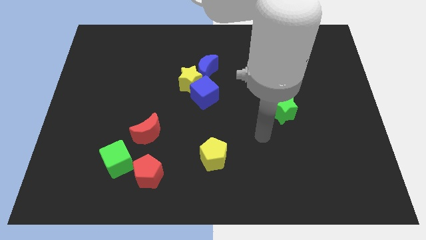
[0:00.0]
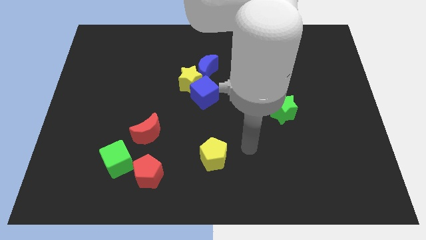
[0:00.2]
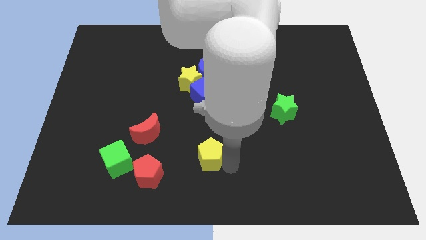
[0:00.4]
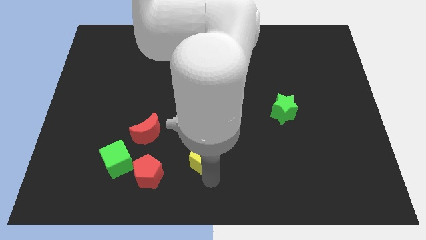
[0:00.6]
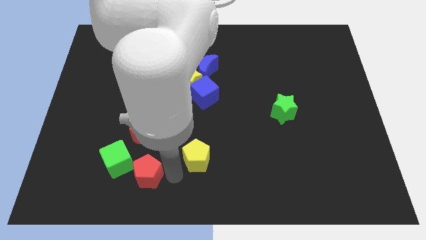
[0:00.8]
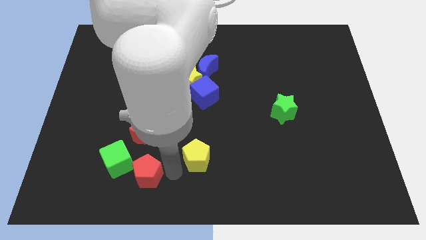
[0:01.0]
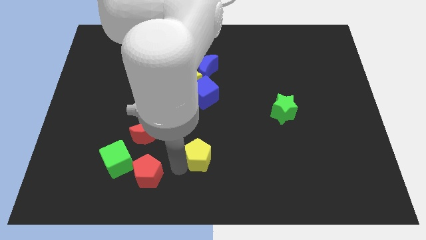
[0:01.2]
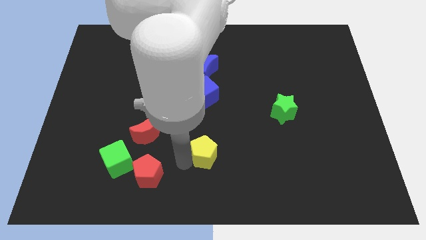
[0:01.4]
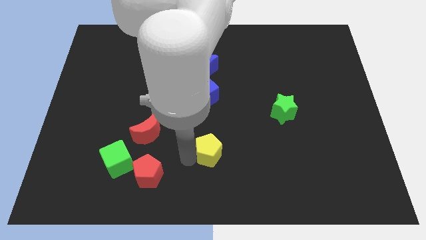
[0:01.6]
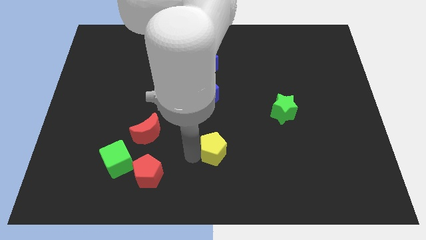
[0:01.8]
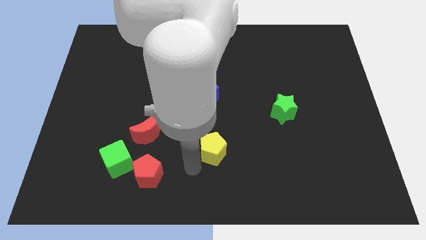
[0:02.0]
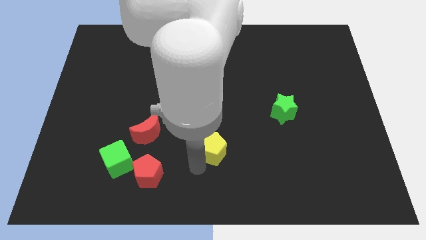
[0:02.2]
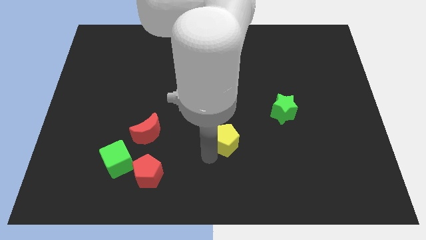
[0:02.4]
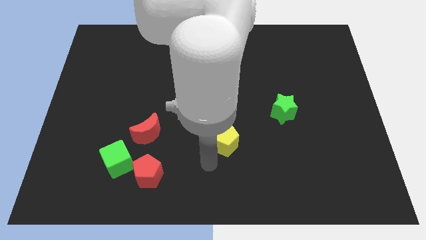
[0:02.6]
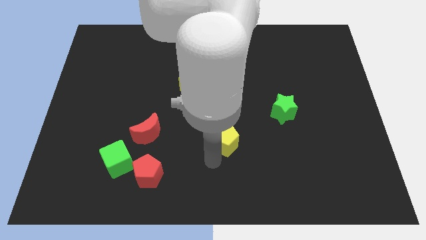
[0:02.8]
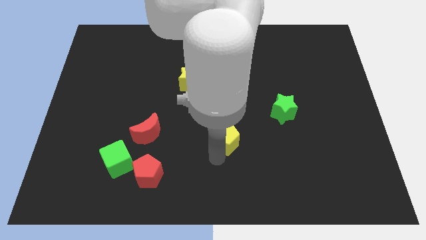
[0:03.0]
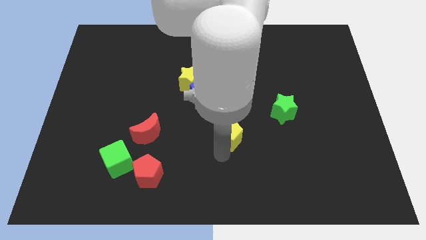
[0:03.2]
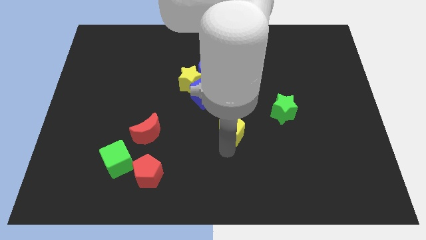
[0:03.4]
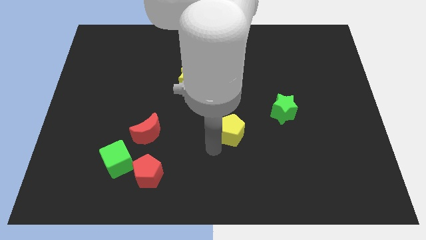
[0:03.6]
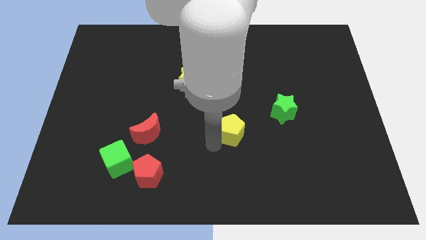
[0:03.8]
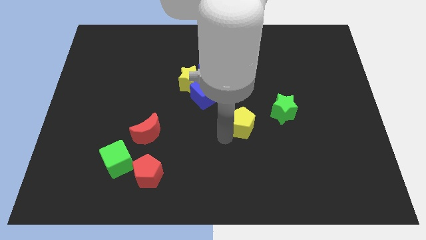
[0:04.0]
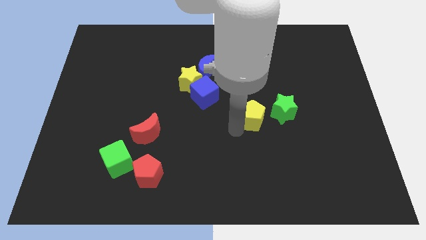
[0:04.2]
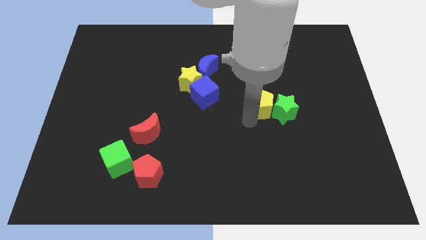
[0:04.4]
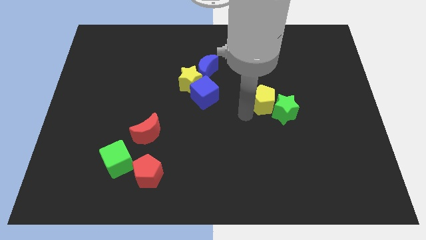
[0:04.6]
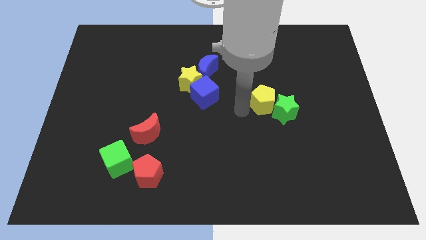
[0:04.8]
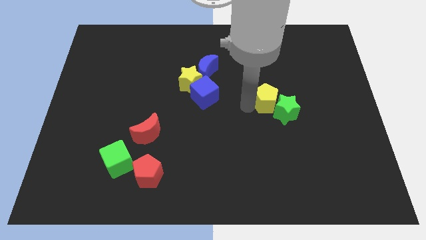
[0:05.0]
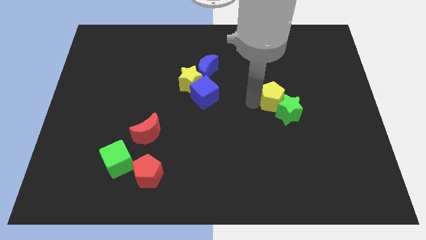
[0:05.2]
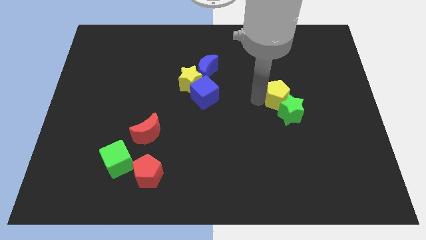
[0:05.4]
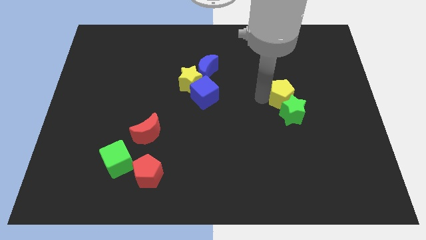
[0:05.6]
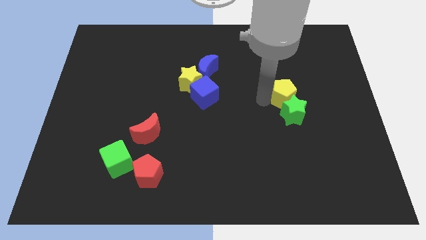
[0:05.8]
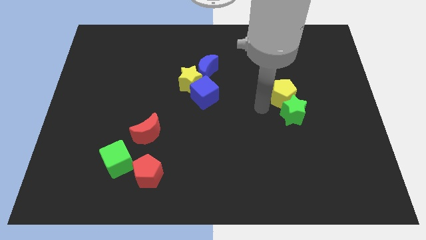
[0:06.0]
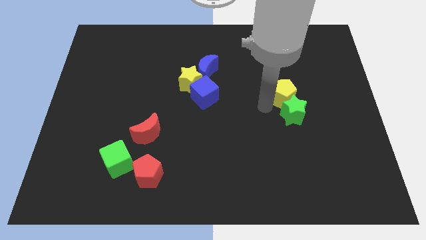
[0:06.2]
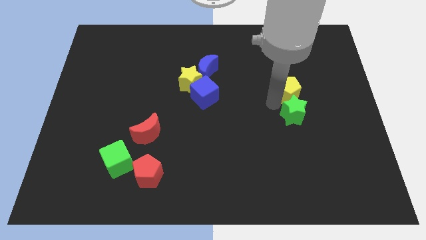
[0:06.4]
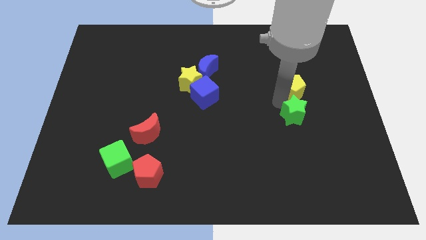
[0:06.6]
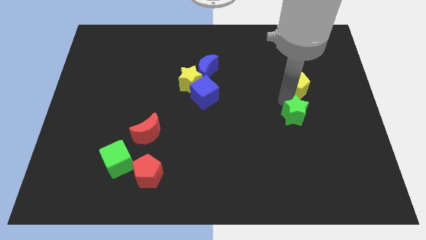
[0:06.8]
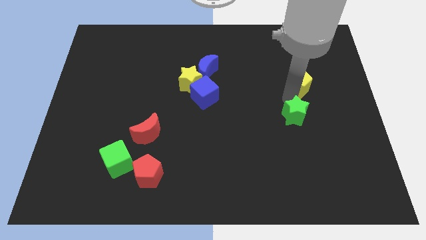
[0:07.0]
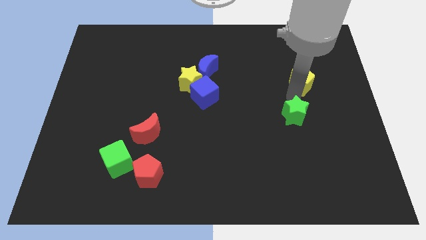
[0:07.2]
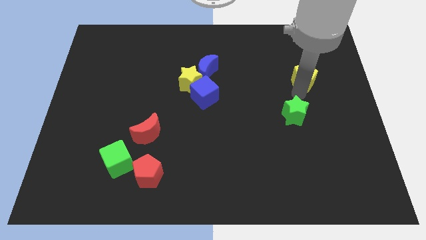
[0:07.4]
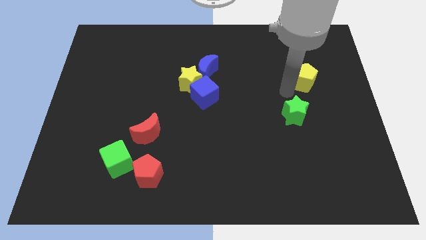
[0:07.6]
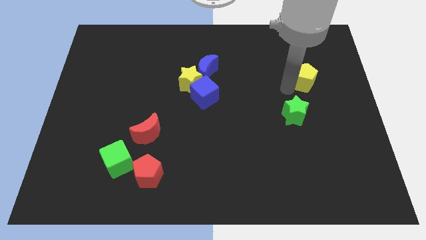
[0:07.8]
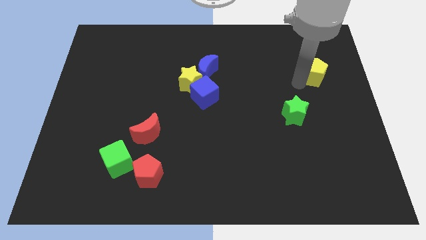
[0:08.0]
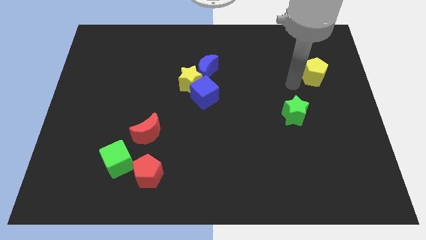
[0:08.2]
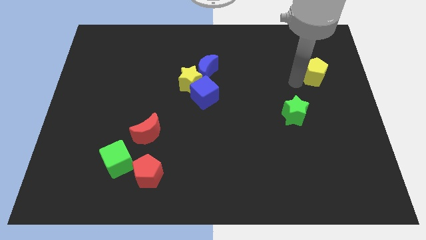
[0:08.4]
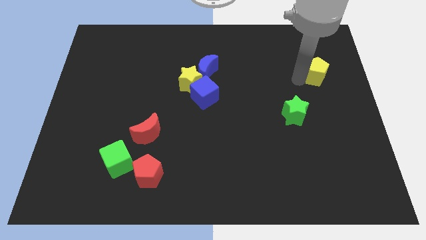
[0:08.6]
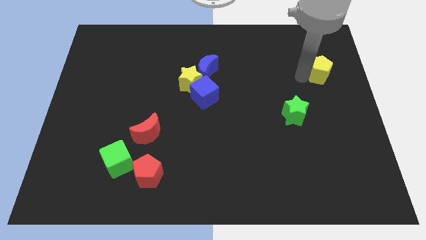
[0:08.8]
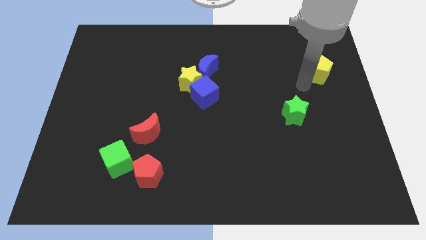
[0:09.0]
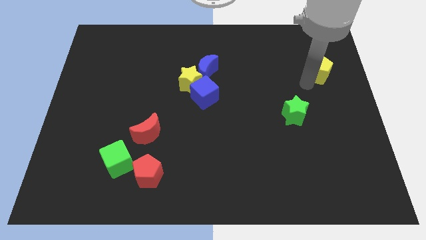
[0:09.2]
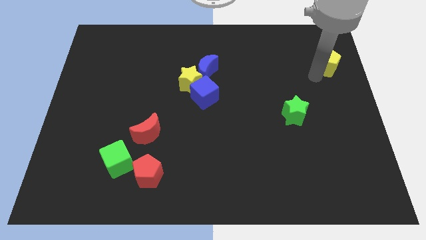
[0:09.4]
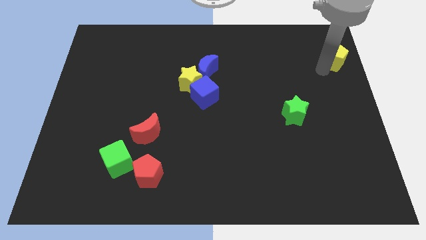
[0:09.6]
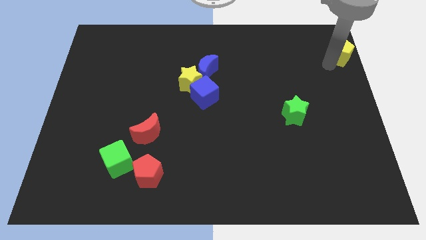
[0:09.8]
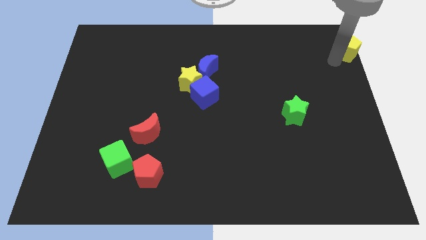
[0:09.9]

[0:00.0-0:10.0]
put the yellow pentagon to the top right corner

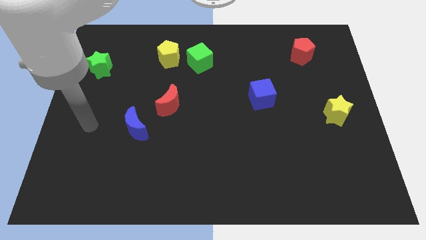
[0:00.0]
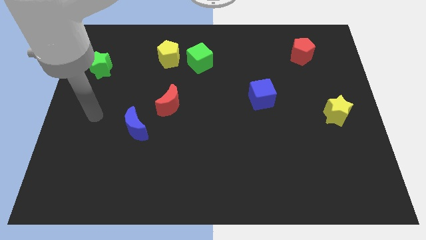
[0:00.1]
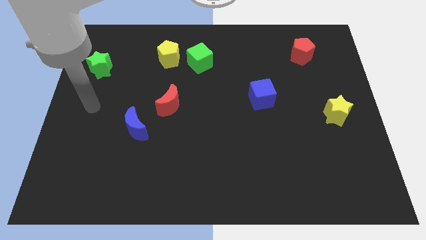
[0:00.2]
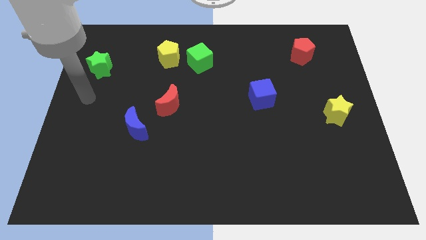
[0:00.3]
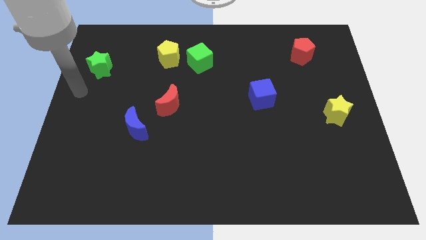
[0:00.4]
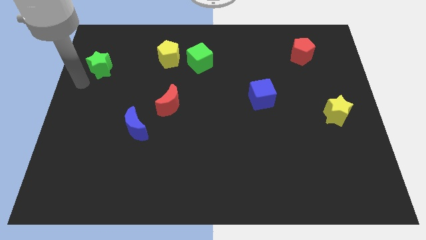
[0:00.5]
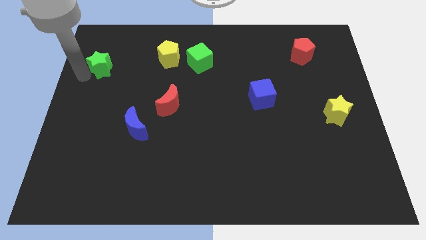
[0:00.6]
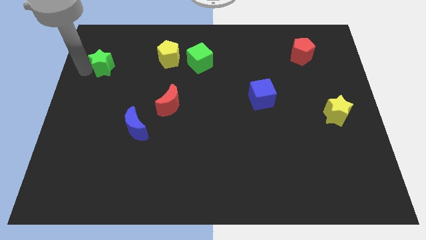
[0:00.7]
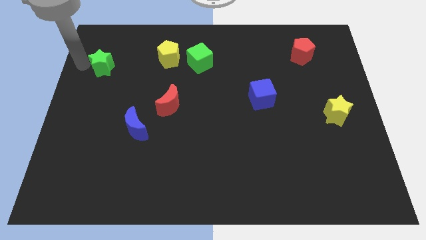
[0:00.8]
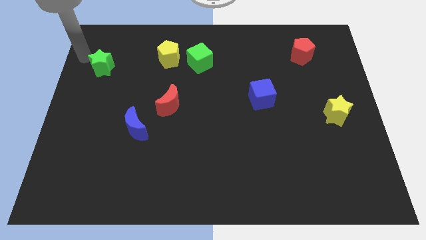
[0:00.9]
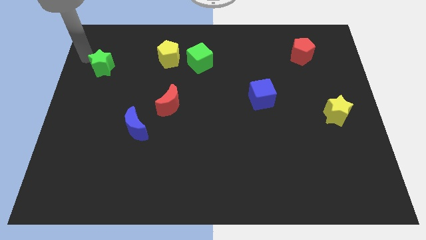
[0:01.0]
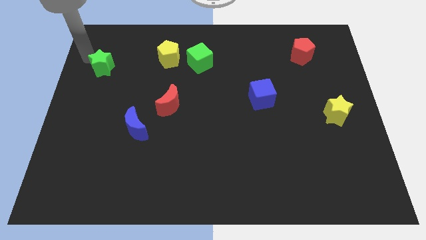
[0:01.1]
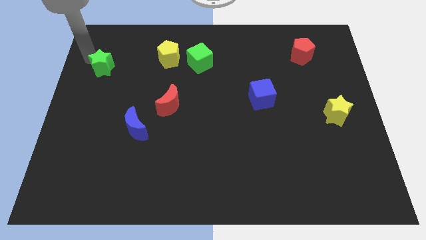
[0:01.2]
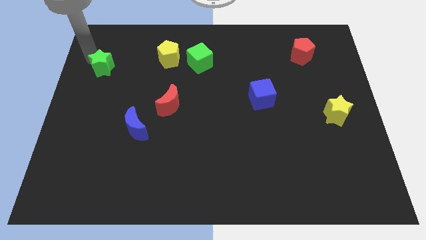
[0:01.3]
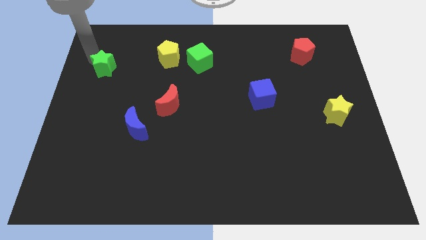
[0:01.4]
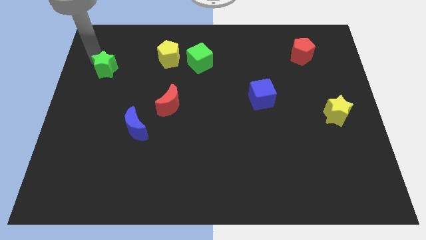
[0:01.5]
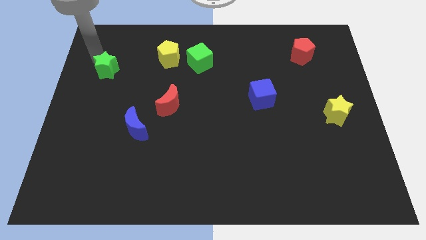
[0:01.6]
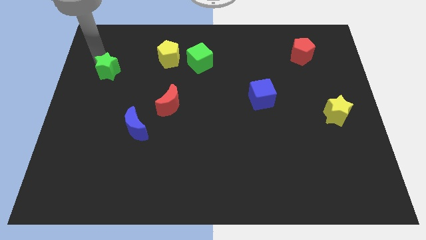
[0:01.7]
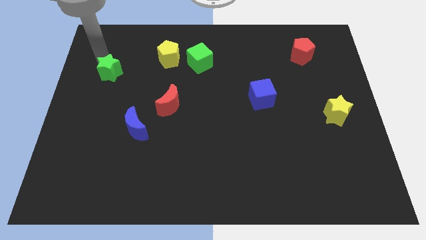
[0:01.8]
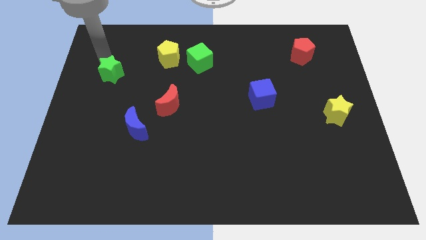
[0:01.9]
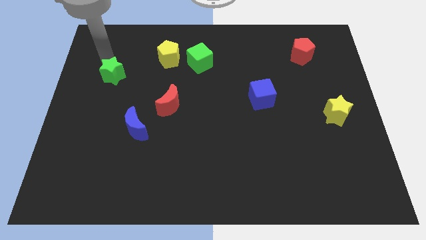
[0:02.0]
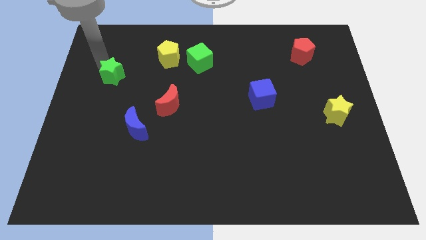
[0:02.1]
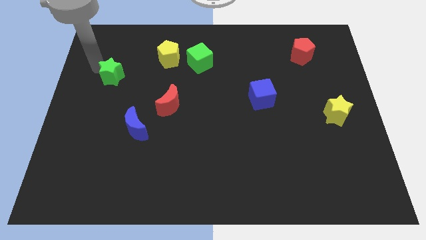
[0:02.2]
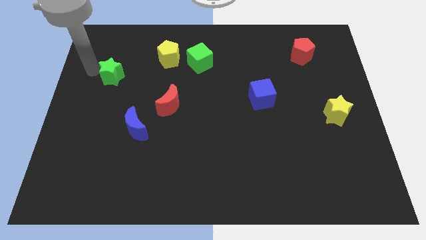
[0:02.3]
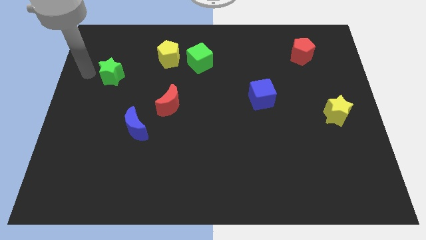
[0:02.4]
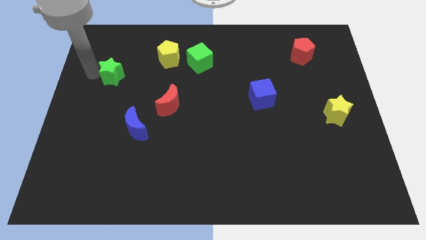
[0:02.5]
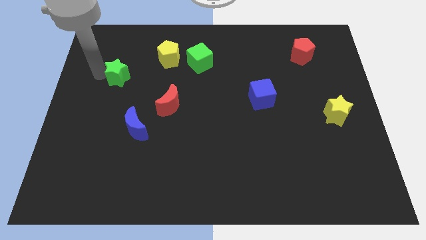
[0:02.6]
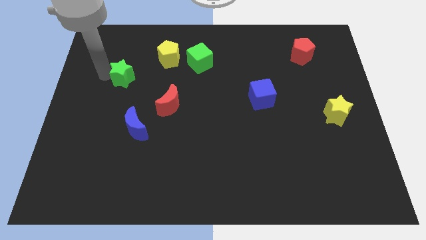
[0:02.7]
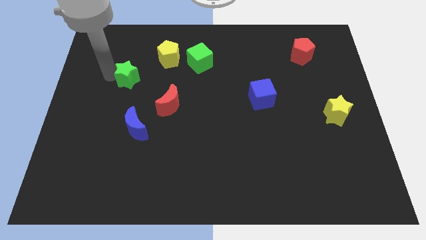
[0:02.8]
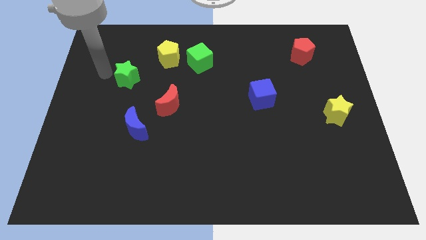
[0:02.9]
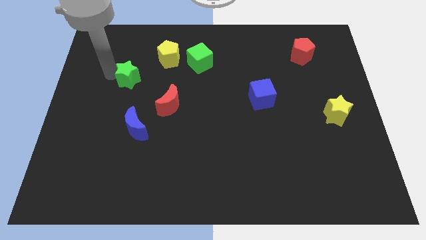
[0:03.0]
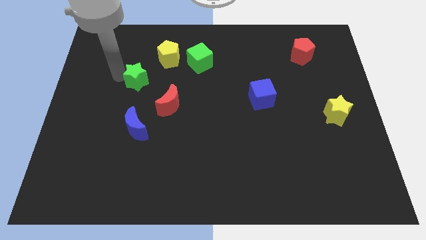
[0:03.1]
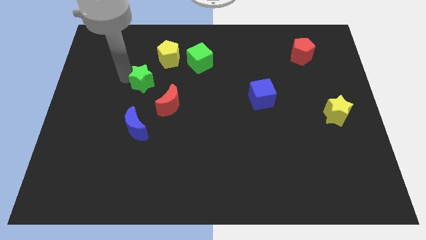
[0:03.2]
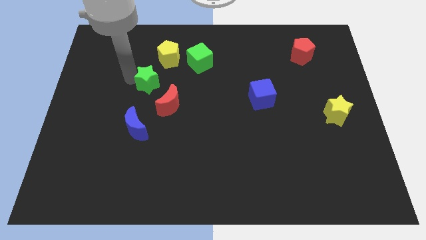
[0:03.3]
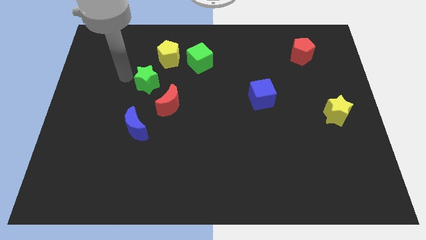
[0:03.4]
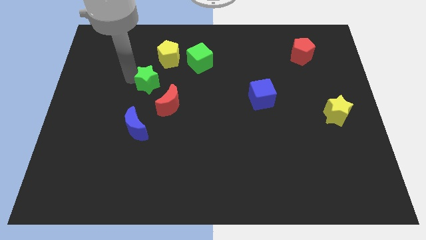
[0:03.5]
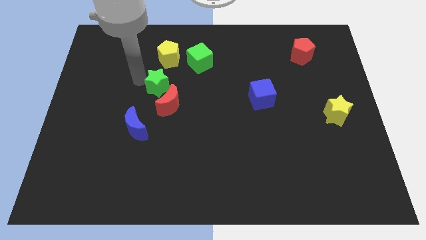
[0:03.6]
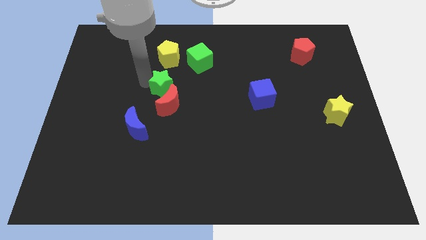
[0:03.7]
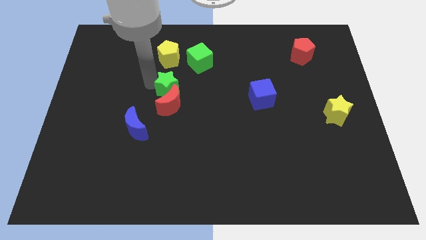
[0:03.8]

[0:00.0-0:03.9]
push the green star to the center
